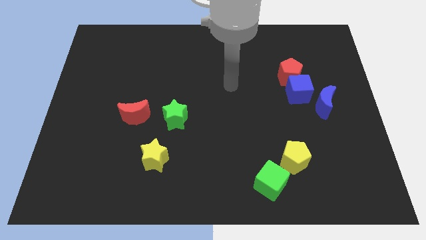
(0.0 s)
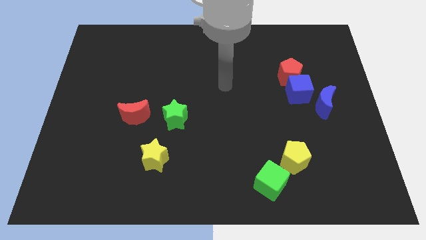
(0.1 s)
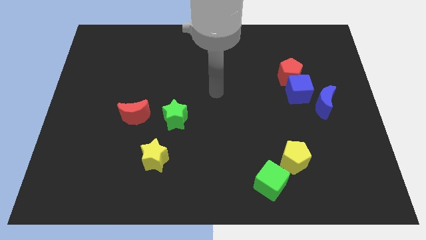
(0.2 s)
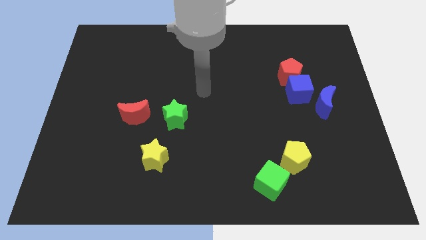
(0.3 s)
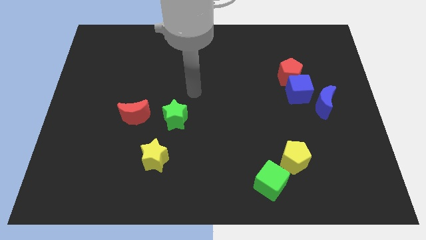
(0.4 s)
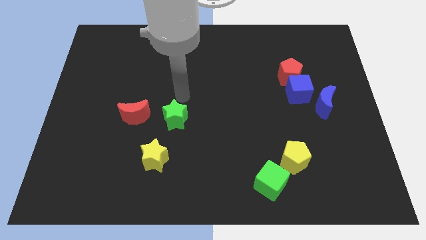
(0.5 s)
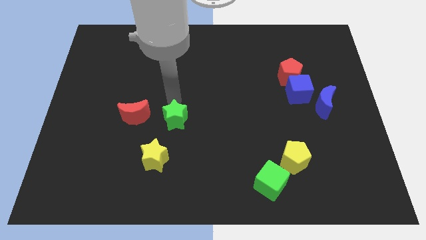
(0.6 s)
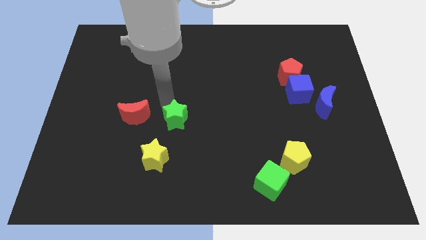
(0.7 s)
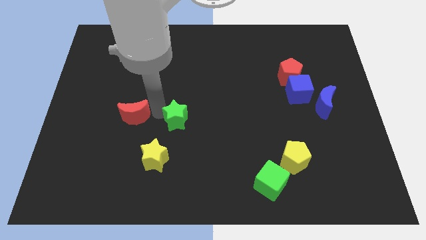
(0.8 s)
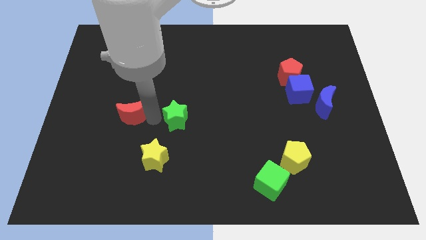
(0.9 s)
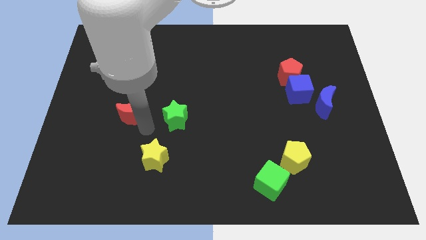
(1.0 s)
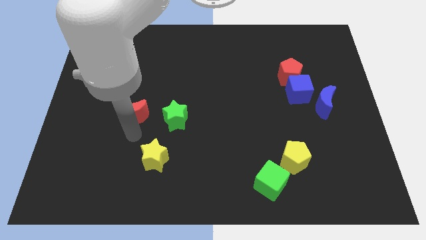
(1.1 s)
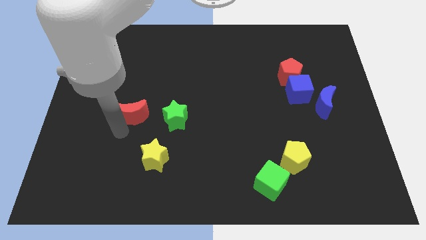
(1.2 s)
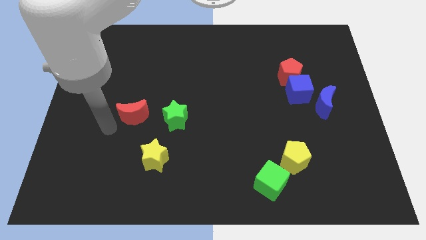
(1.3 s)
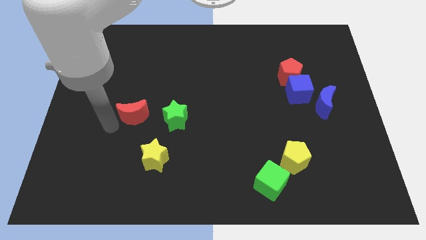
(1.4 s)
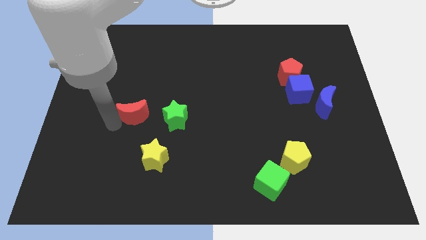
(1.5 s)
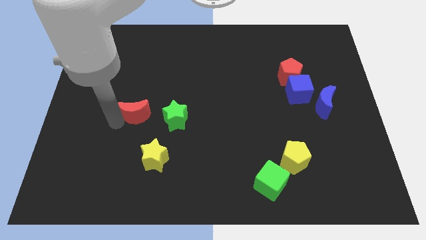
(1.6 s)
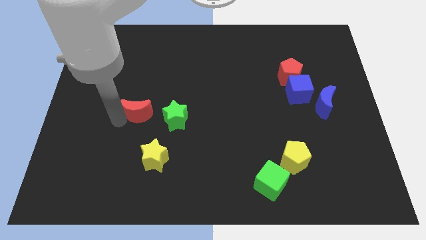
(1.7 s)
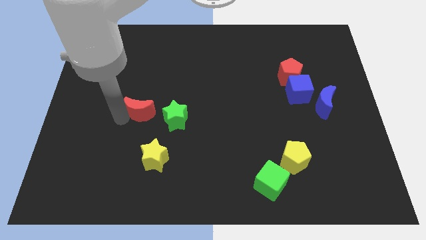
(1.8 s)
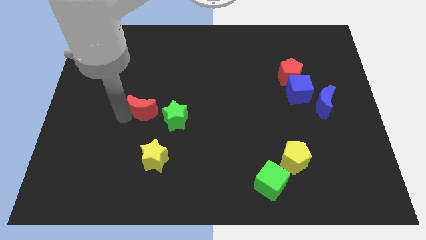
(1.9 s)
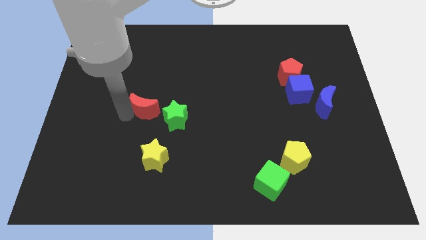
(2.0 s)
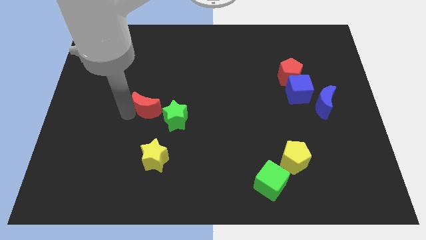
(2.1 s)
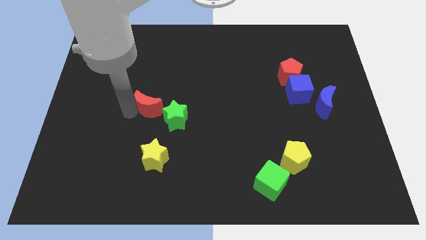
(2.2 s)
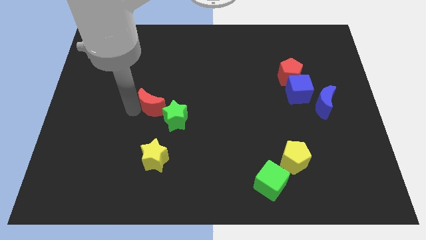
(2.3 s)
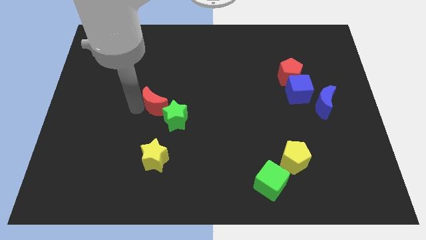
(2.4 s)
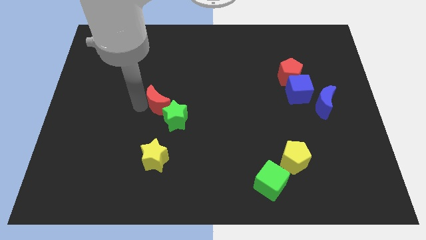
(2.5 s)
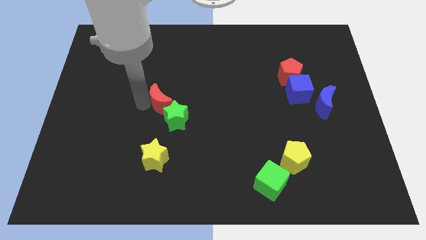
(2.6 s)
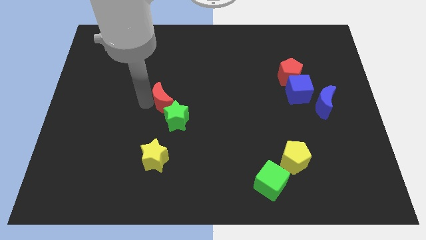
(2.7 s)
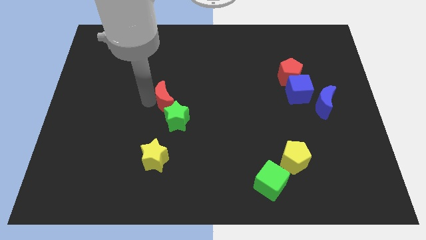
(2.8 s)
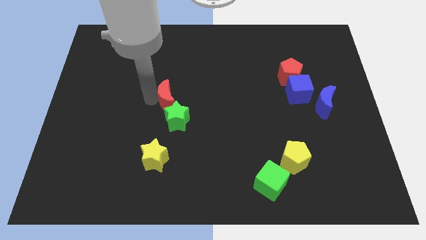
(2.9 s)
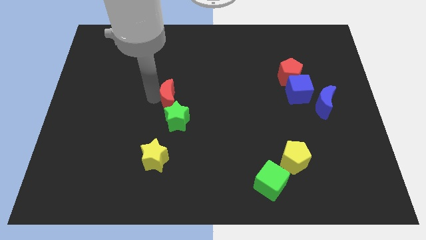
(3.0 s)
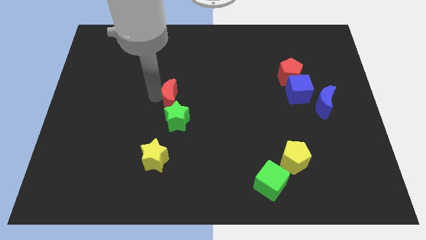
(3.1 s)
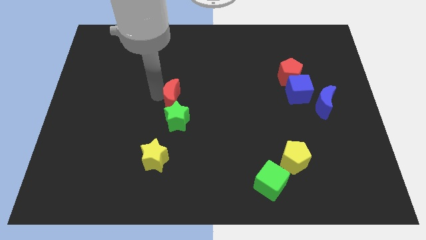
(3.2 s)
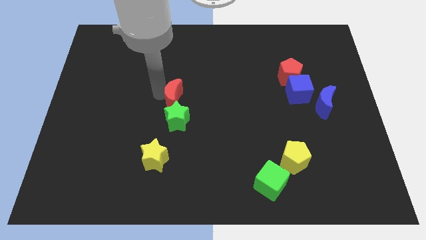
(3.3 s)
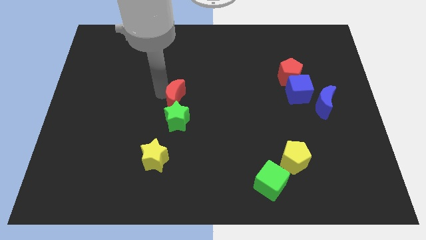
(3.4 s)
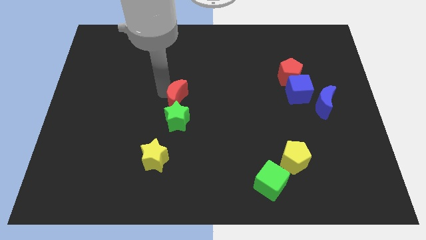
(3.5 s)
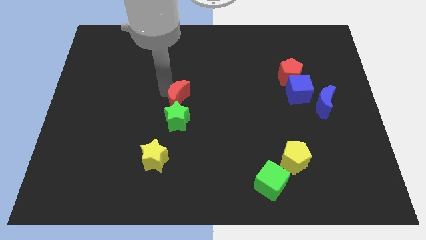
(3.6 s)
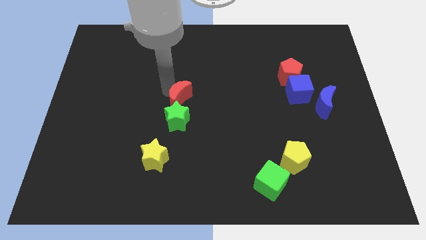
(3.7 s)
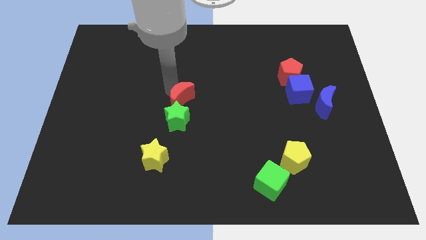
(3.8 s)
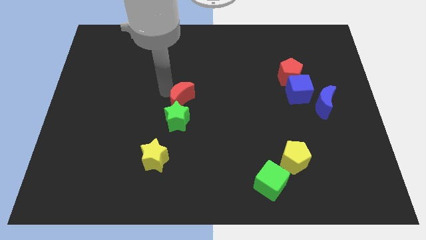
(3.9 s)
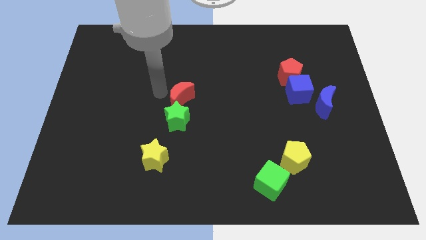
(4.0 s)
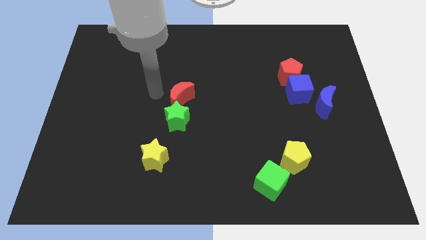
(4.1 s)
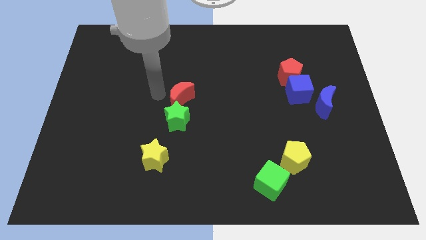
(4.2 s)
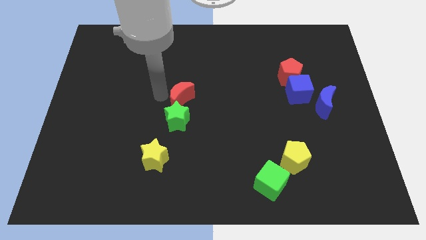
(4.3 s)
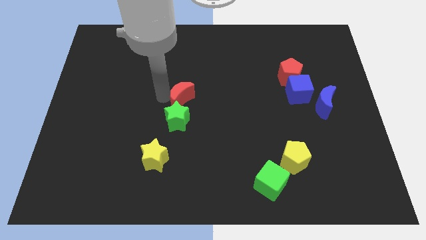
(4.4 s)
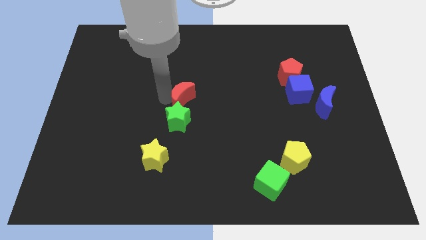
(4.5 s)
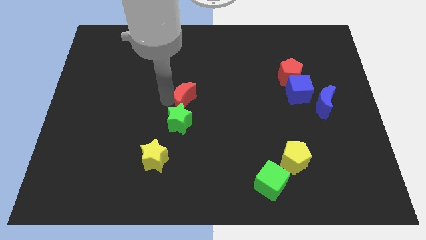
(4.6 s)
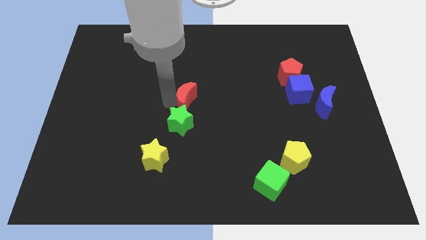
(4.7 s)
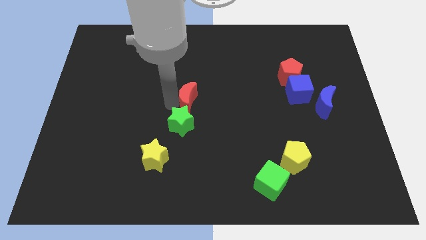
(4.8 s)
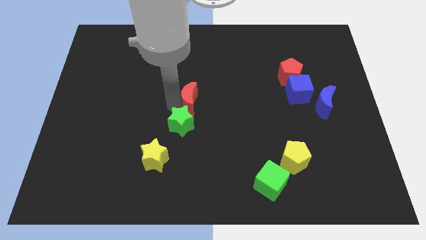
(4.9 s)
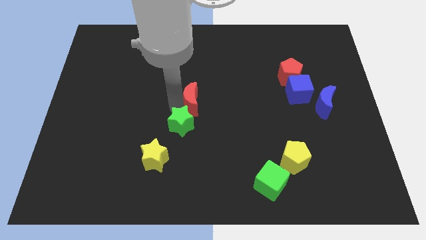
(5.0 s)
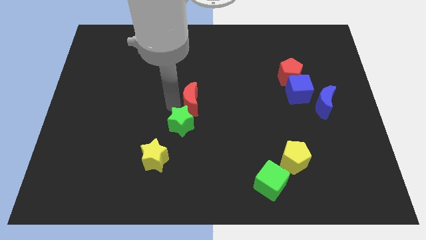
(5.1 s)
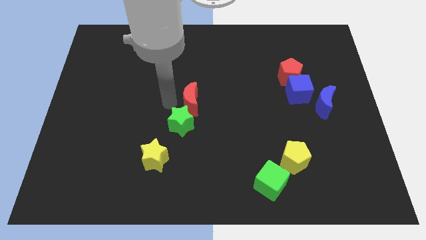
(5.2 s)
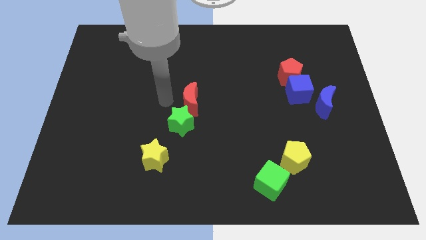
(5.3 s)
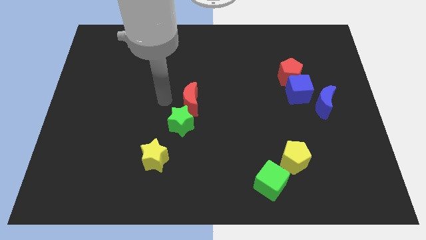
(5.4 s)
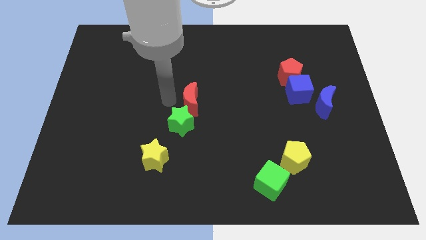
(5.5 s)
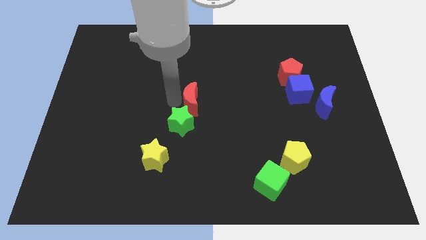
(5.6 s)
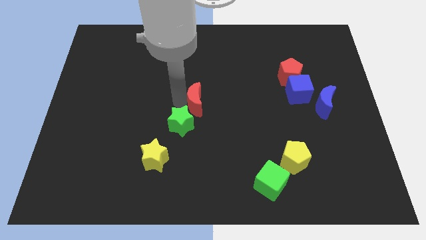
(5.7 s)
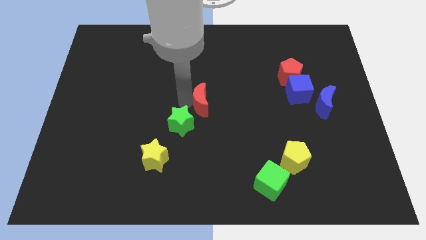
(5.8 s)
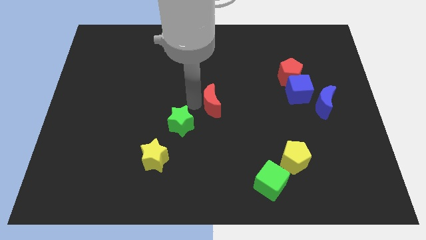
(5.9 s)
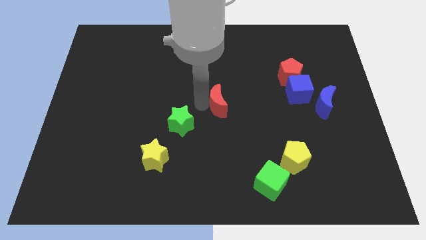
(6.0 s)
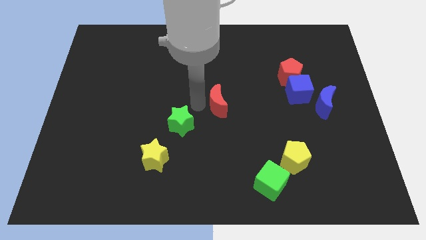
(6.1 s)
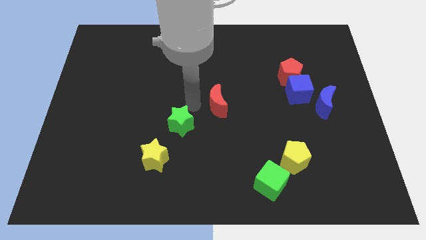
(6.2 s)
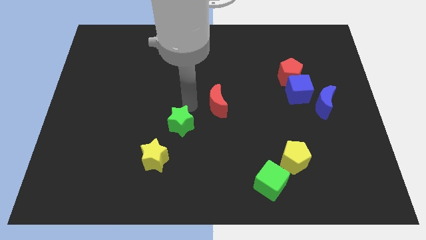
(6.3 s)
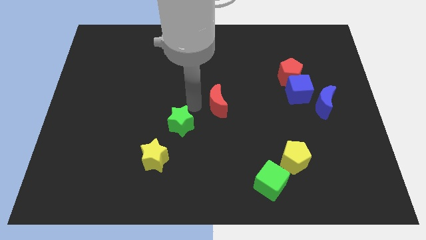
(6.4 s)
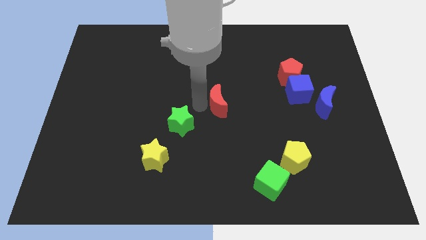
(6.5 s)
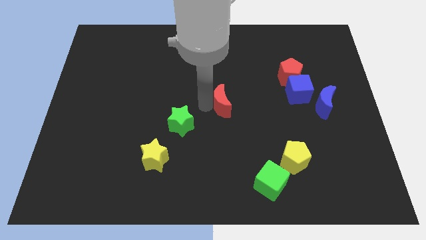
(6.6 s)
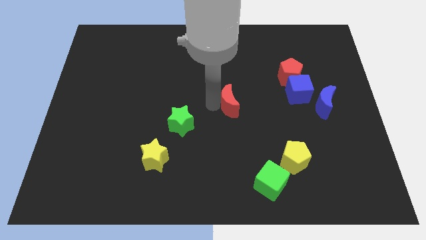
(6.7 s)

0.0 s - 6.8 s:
slide the red moon right

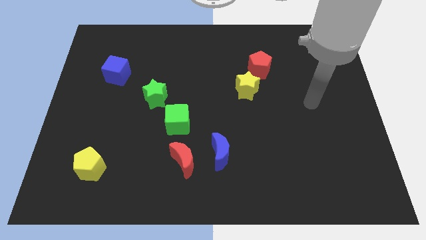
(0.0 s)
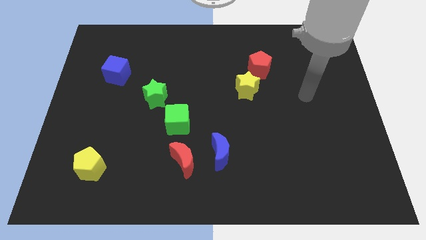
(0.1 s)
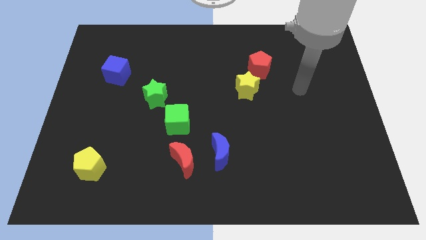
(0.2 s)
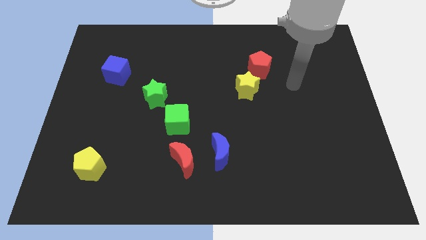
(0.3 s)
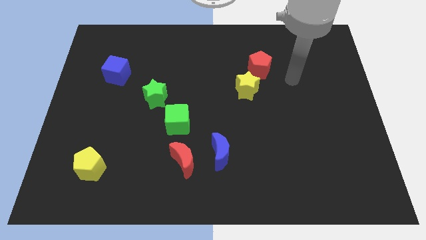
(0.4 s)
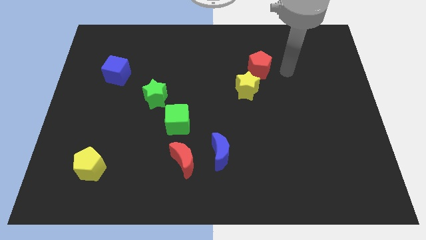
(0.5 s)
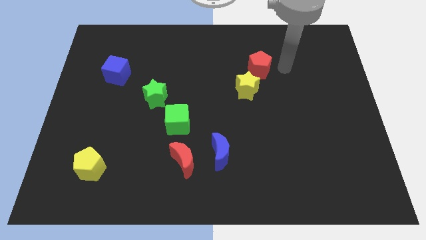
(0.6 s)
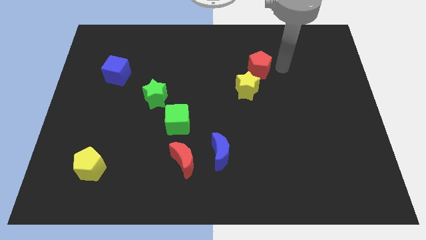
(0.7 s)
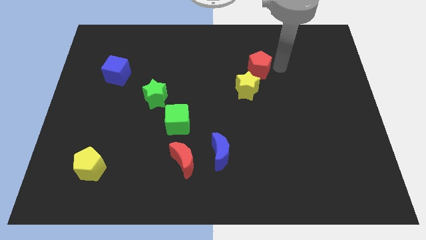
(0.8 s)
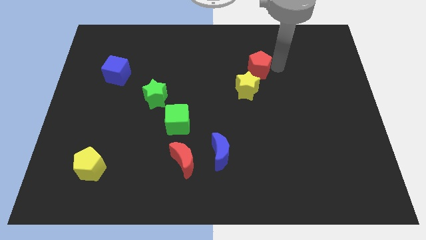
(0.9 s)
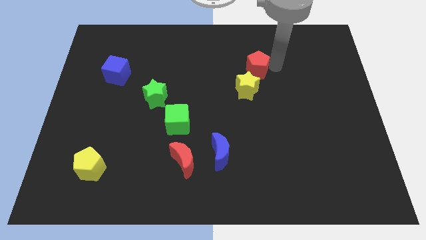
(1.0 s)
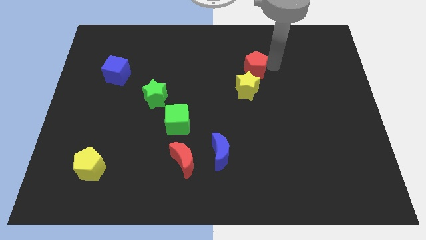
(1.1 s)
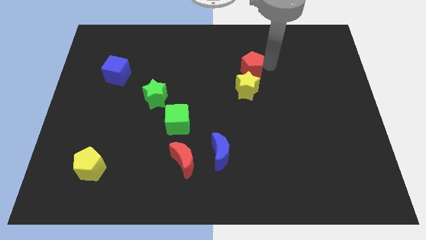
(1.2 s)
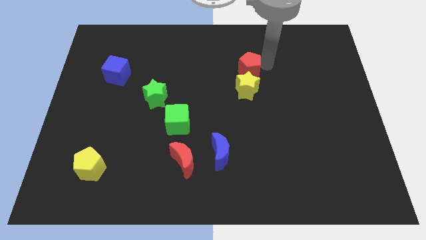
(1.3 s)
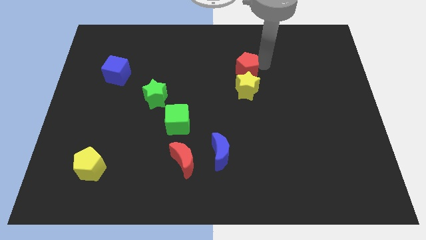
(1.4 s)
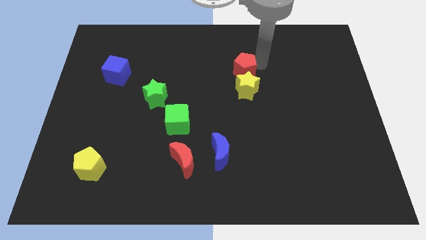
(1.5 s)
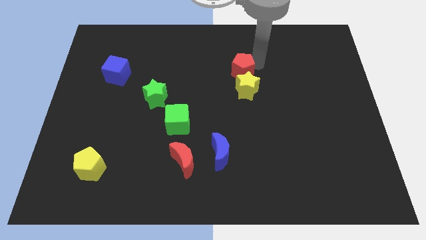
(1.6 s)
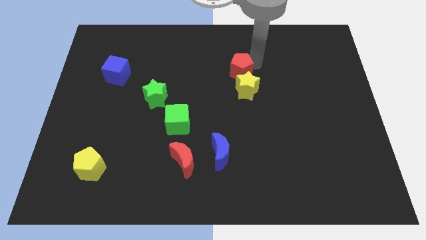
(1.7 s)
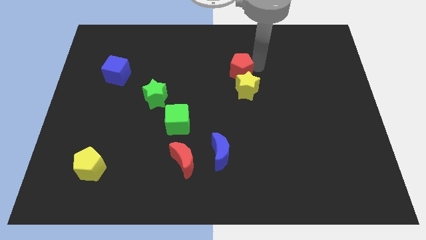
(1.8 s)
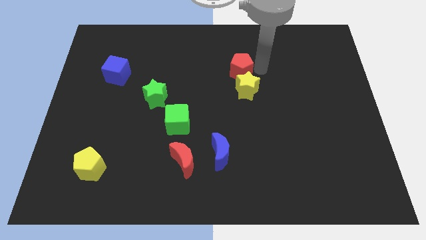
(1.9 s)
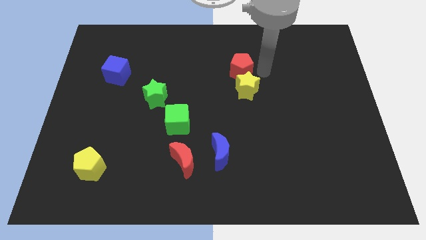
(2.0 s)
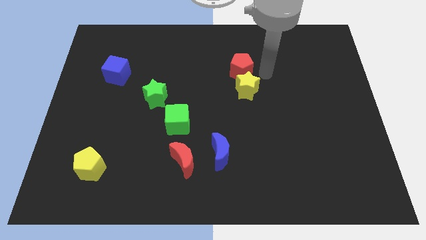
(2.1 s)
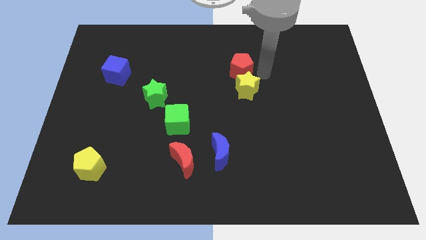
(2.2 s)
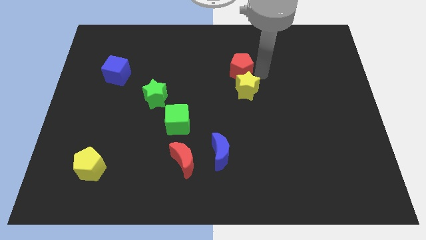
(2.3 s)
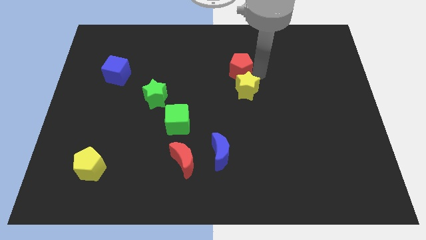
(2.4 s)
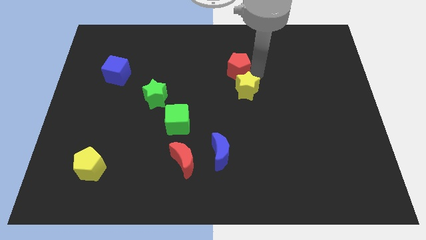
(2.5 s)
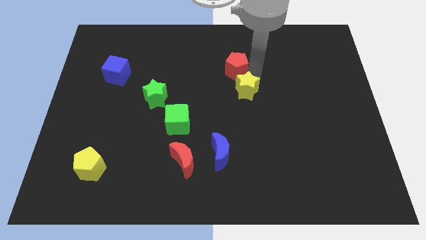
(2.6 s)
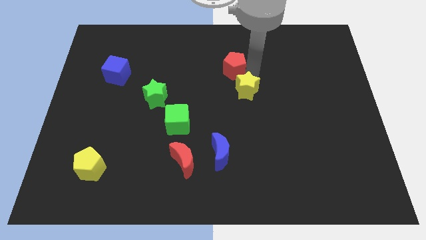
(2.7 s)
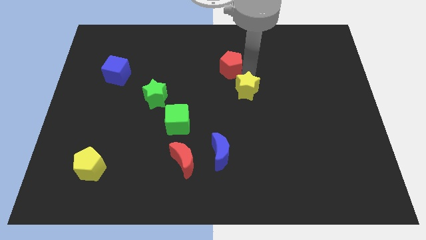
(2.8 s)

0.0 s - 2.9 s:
push the red pentagon to the left a bit
